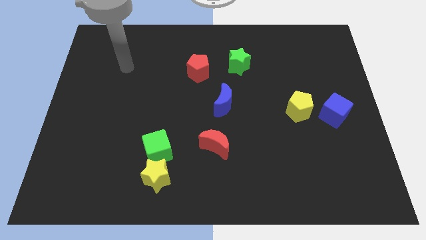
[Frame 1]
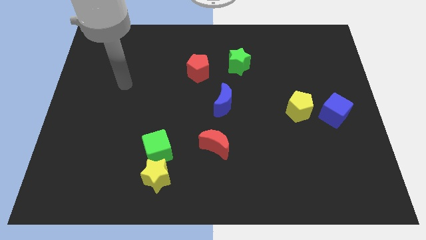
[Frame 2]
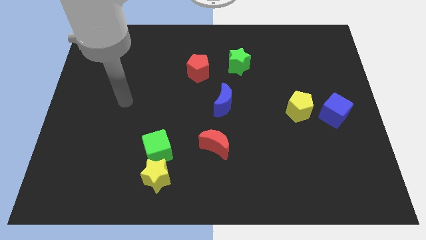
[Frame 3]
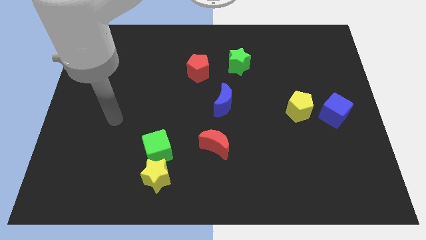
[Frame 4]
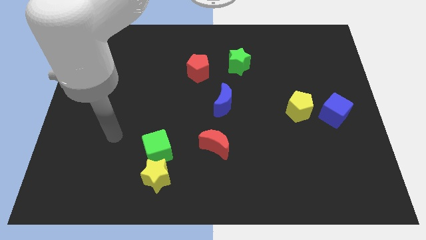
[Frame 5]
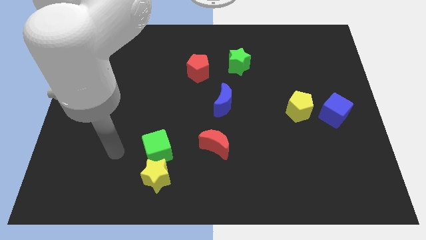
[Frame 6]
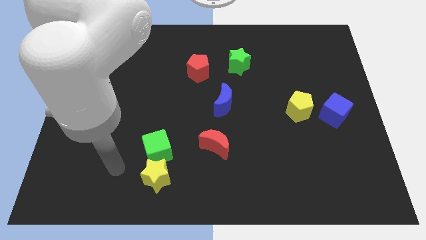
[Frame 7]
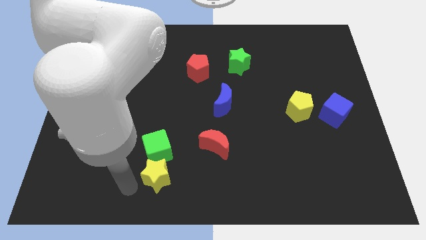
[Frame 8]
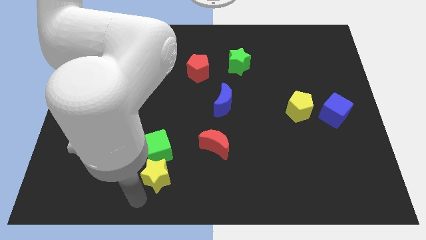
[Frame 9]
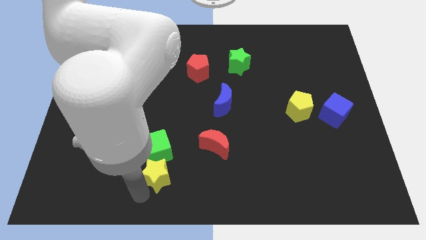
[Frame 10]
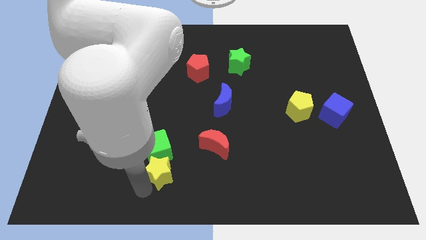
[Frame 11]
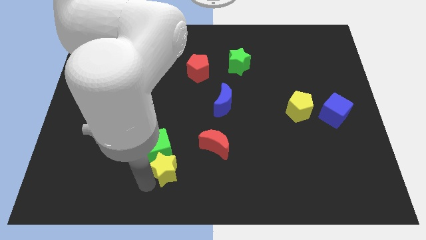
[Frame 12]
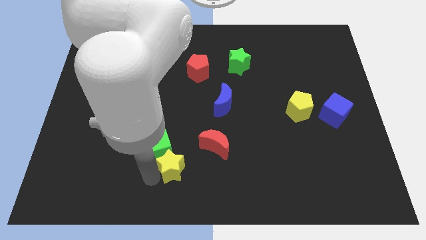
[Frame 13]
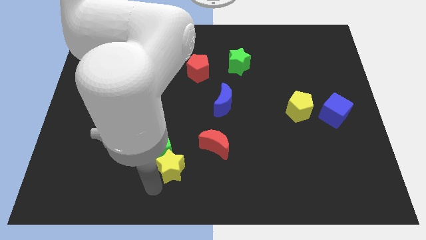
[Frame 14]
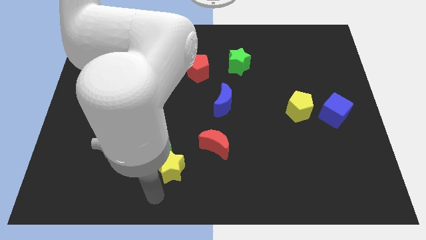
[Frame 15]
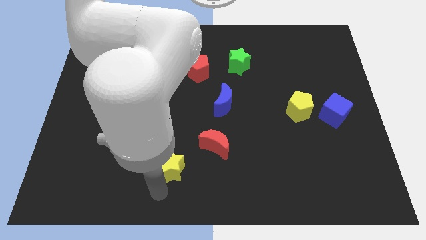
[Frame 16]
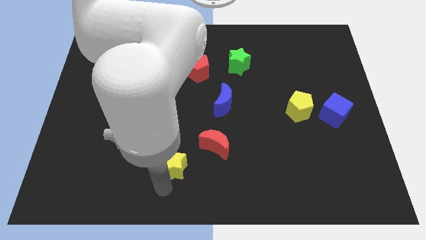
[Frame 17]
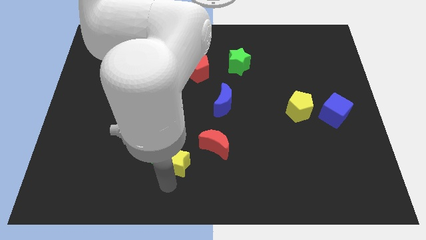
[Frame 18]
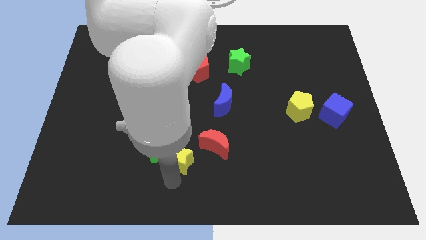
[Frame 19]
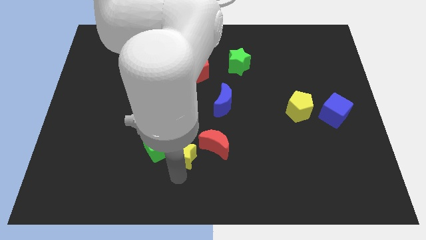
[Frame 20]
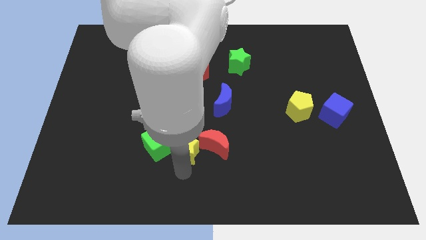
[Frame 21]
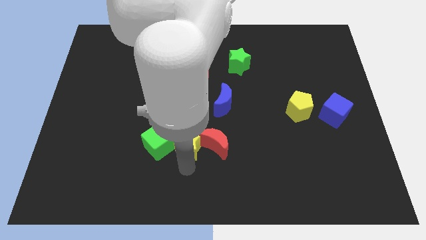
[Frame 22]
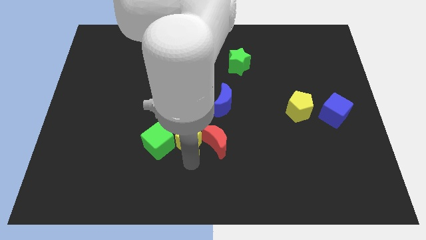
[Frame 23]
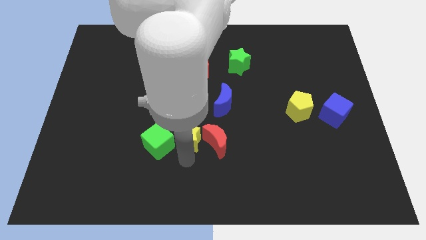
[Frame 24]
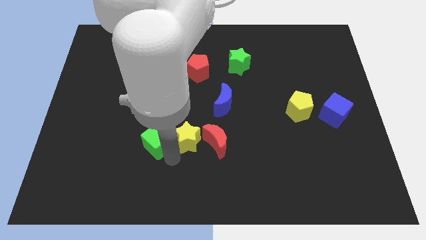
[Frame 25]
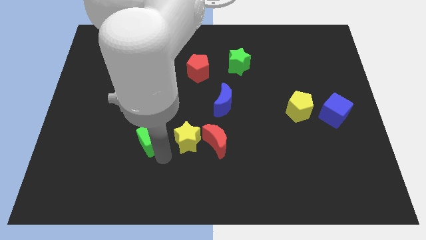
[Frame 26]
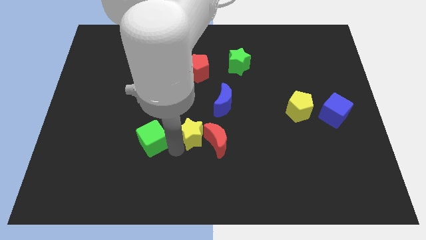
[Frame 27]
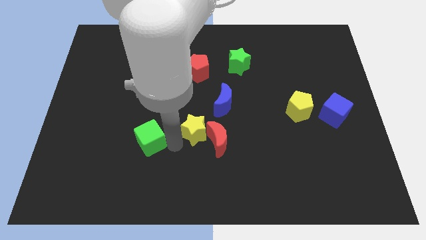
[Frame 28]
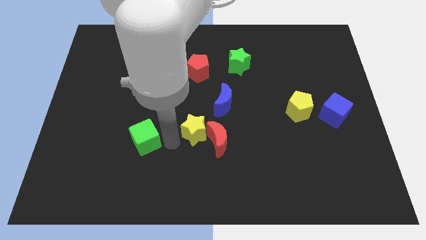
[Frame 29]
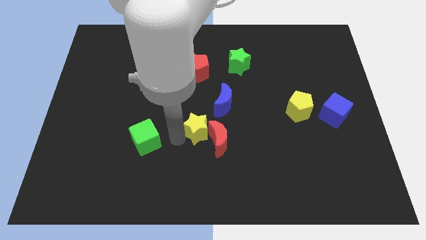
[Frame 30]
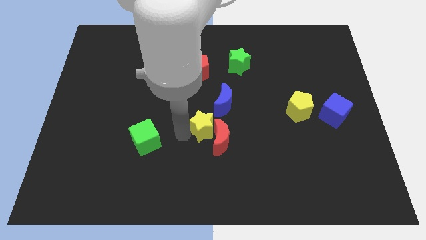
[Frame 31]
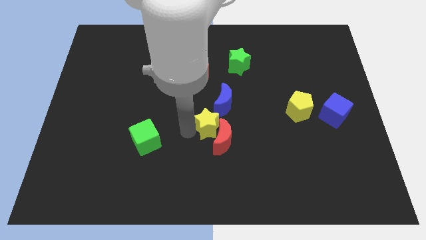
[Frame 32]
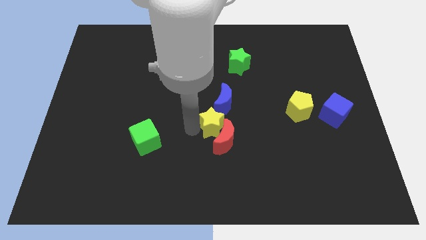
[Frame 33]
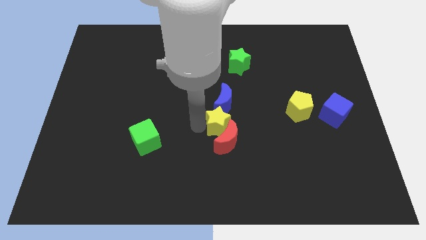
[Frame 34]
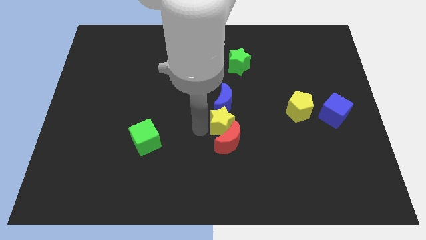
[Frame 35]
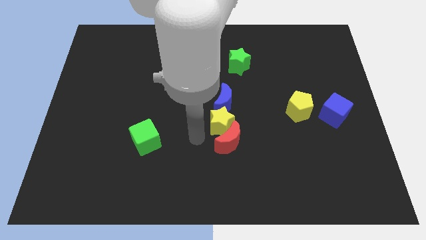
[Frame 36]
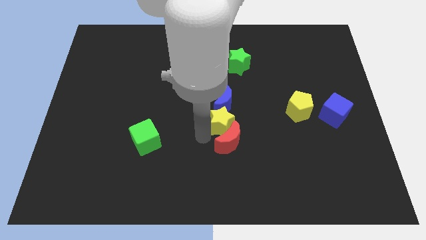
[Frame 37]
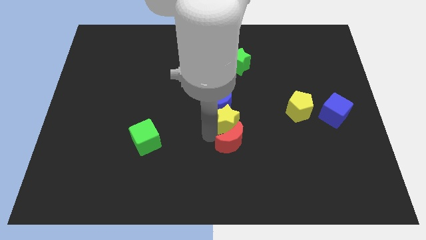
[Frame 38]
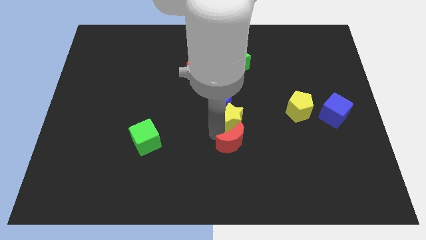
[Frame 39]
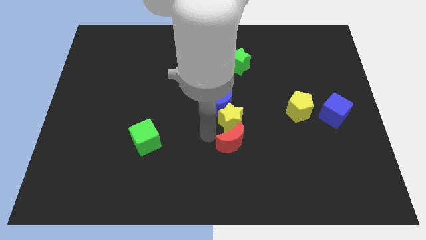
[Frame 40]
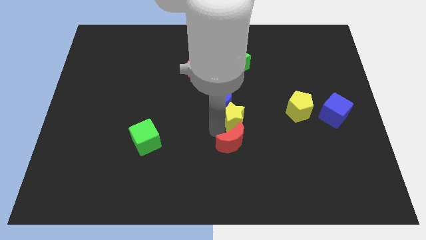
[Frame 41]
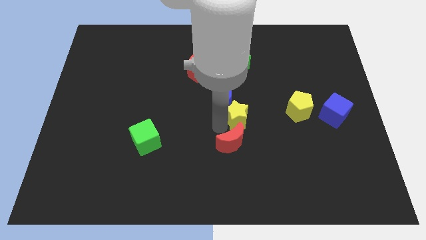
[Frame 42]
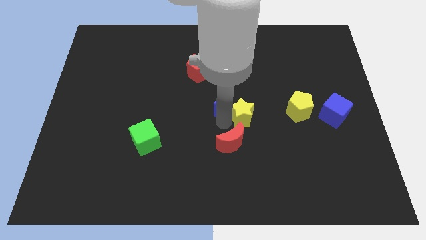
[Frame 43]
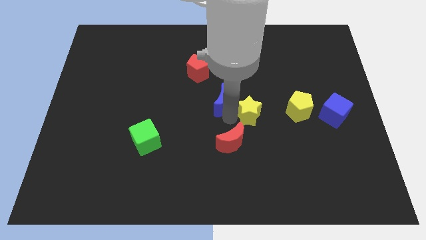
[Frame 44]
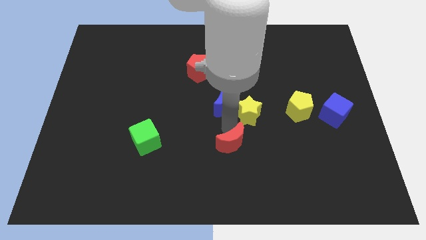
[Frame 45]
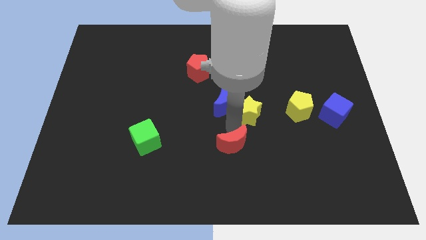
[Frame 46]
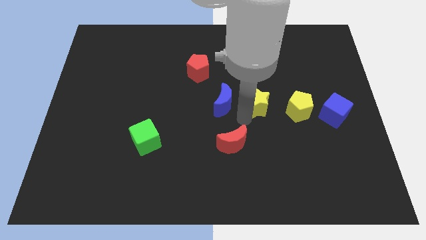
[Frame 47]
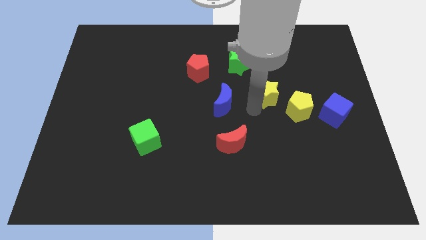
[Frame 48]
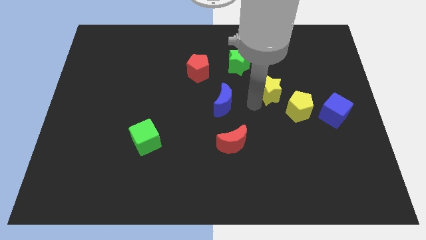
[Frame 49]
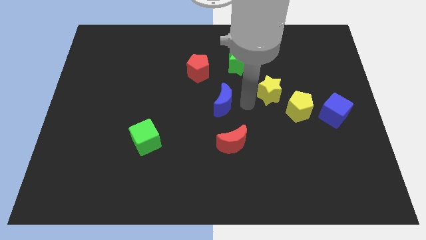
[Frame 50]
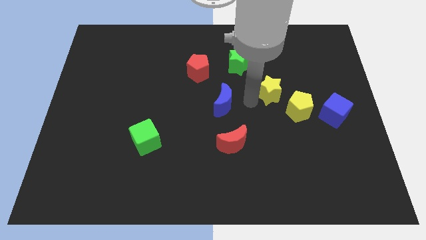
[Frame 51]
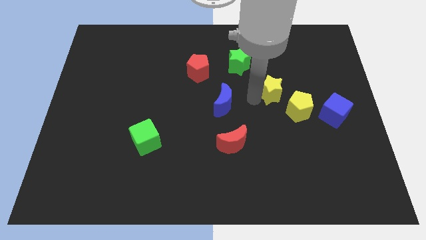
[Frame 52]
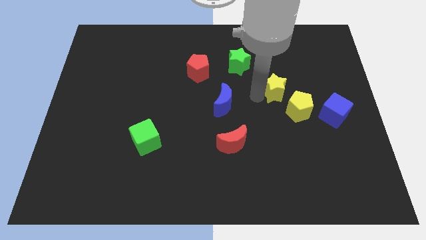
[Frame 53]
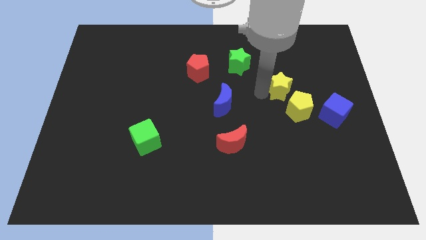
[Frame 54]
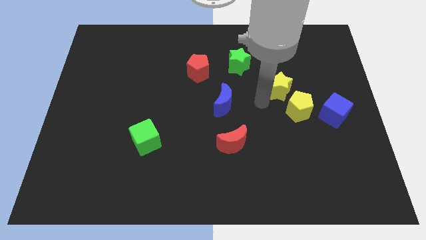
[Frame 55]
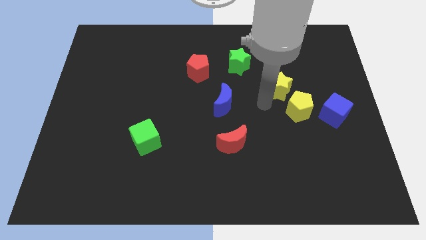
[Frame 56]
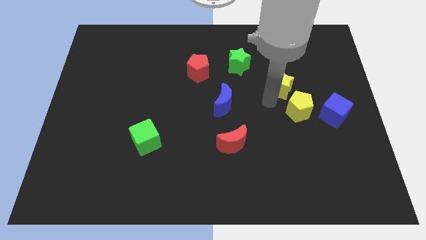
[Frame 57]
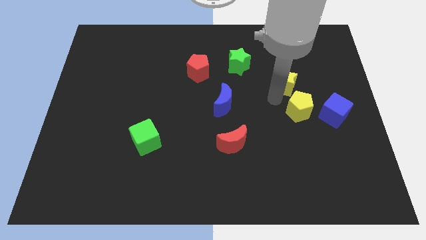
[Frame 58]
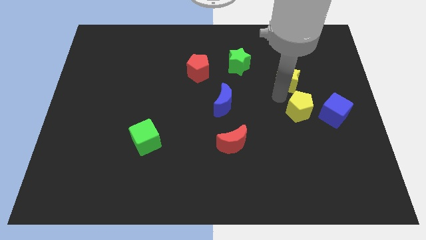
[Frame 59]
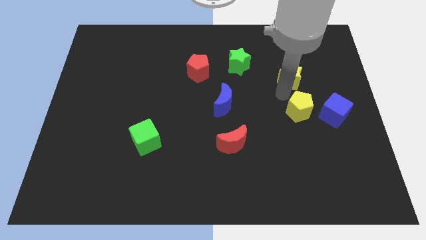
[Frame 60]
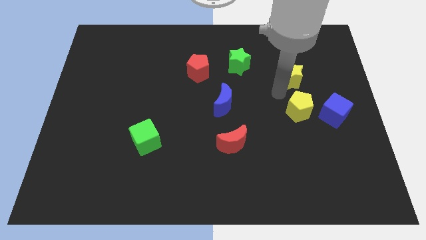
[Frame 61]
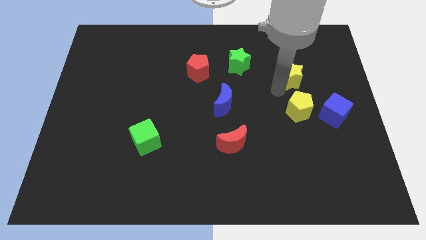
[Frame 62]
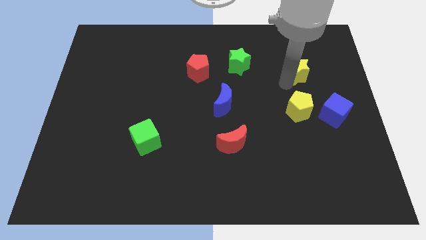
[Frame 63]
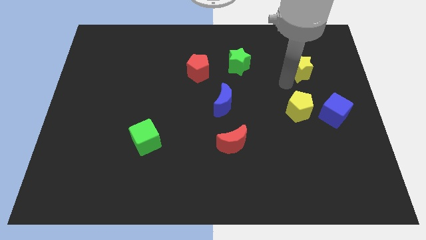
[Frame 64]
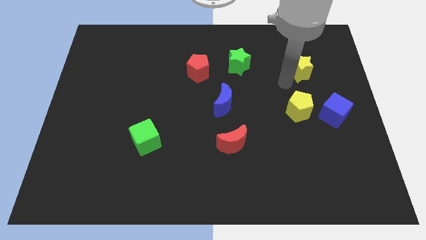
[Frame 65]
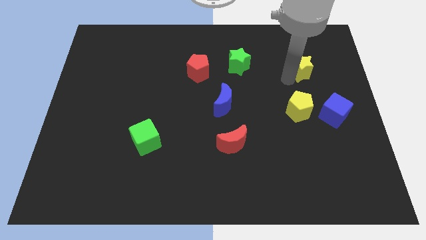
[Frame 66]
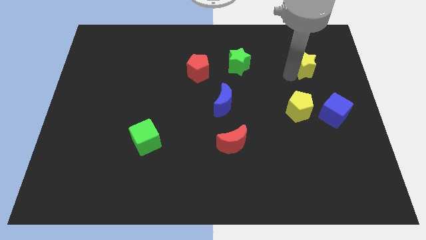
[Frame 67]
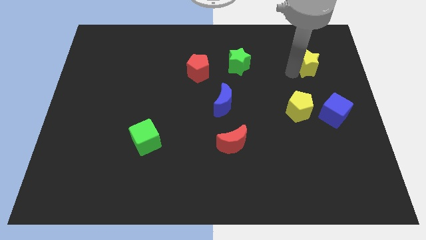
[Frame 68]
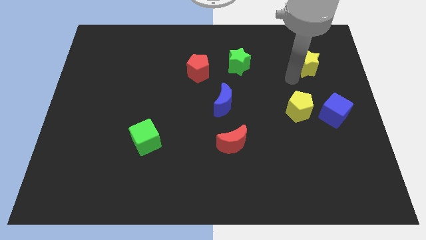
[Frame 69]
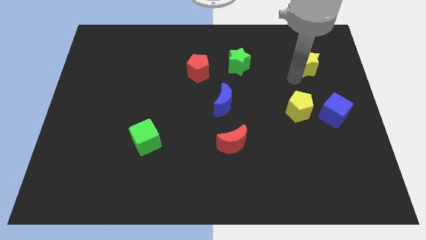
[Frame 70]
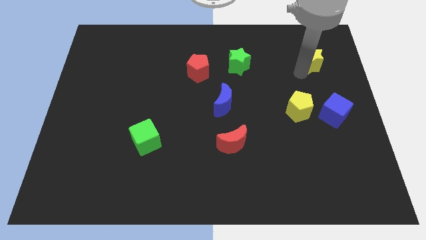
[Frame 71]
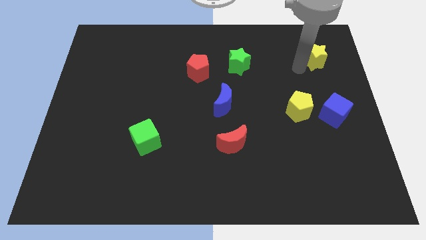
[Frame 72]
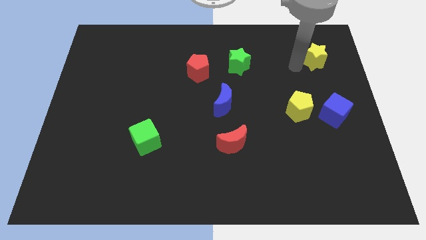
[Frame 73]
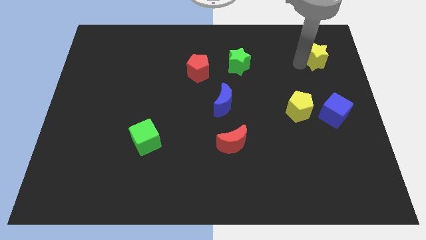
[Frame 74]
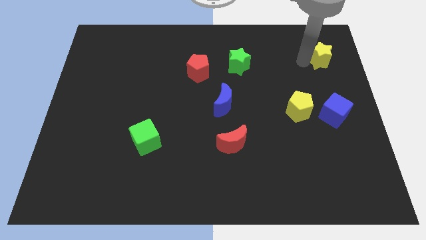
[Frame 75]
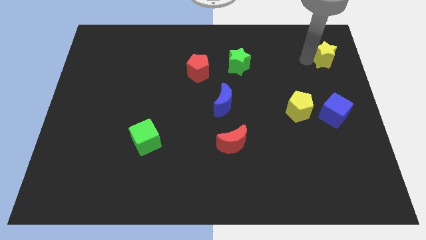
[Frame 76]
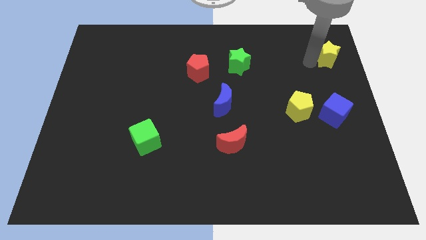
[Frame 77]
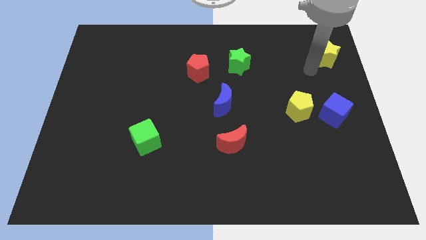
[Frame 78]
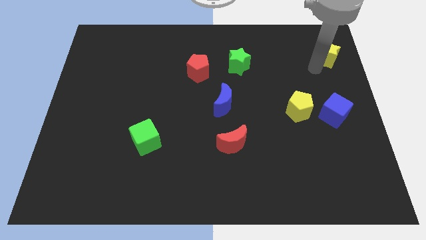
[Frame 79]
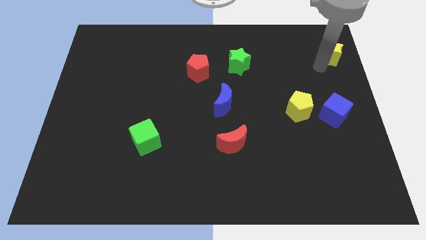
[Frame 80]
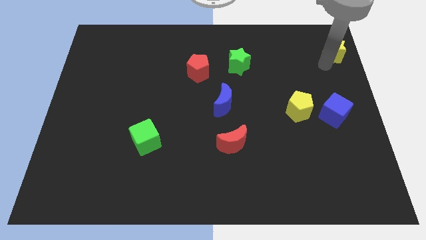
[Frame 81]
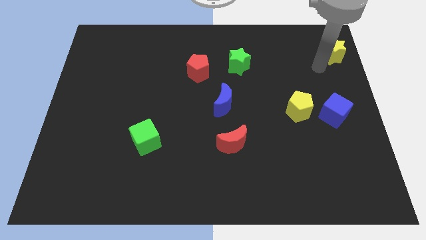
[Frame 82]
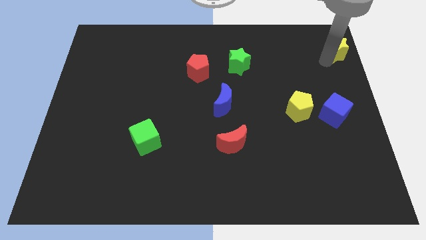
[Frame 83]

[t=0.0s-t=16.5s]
move the yellow star to the top right of the board
